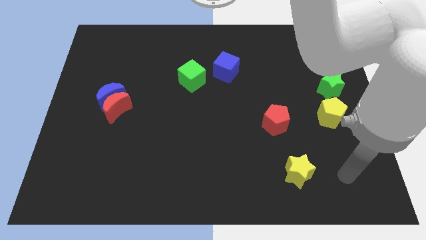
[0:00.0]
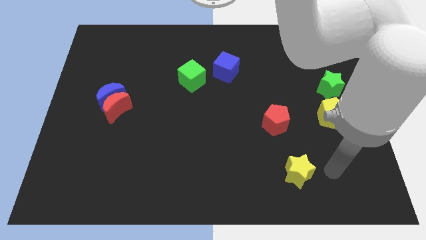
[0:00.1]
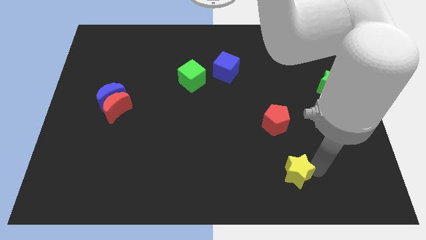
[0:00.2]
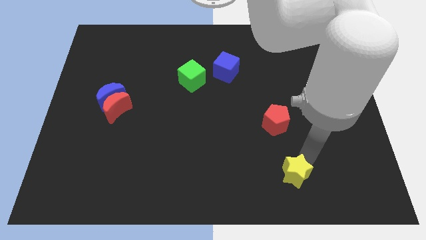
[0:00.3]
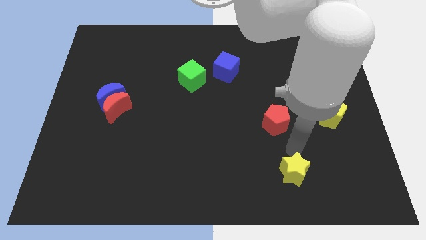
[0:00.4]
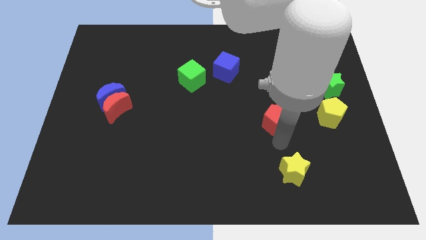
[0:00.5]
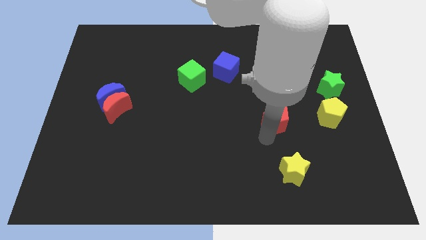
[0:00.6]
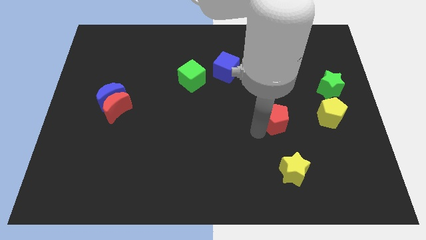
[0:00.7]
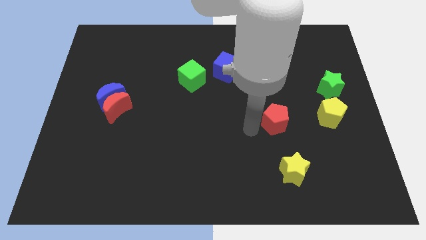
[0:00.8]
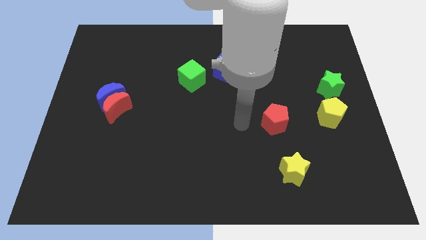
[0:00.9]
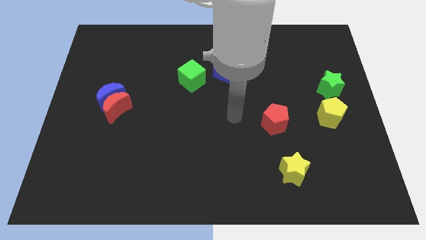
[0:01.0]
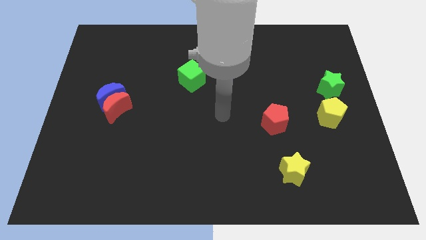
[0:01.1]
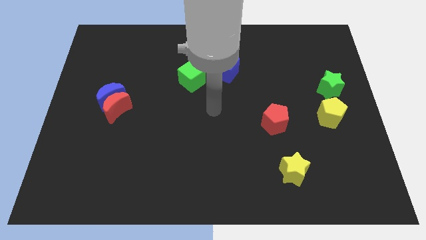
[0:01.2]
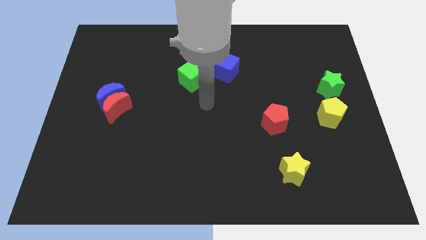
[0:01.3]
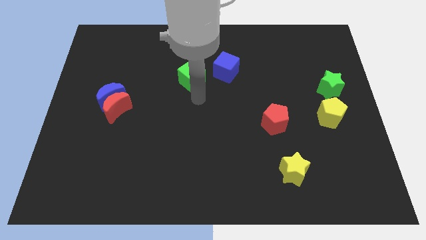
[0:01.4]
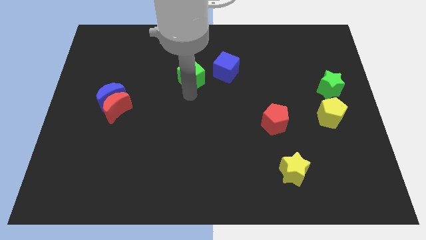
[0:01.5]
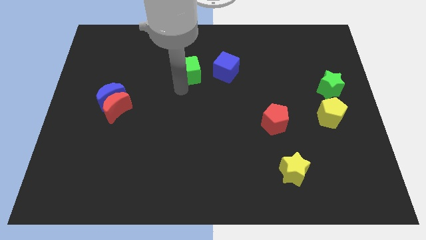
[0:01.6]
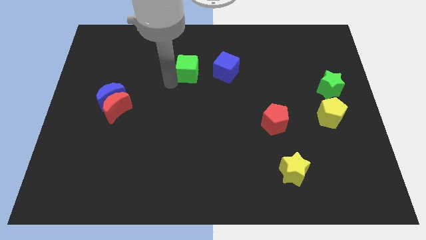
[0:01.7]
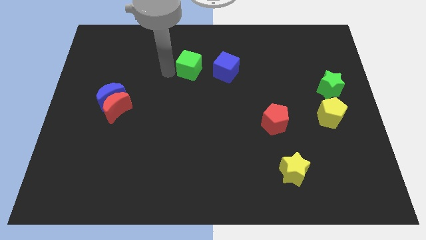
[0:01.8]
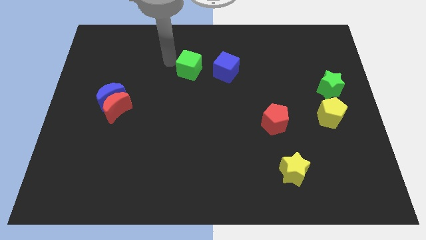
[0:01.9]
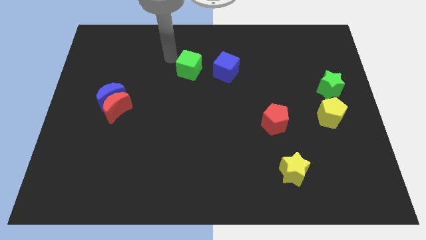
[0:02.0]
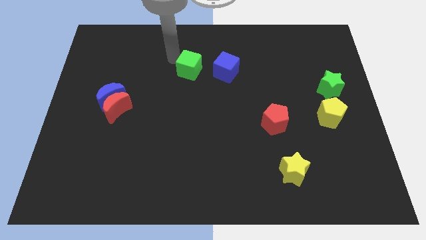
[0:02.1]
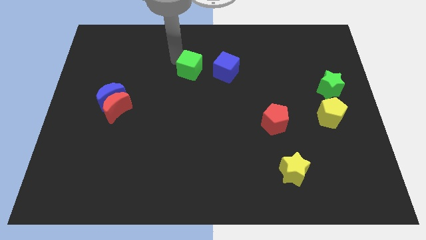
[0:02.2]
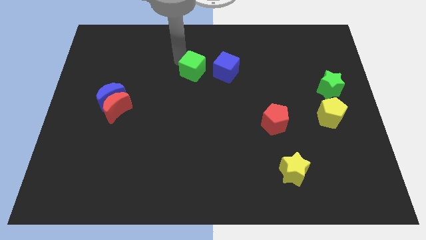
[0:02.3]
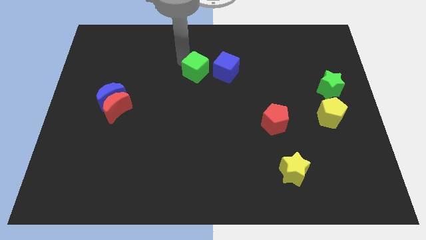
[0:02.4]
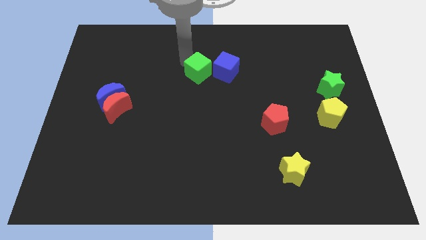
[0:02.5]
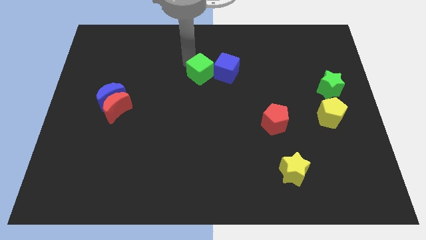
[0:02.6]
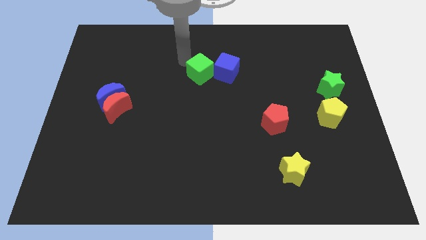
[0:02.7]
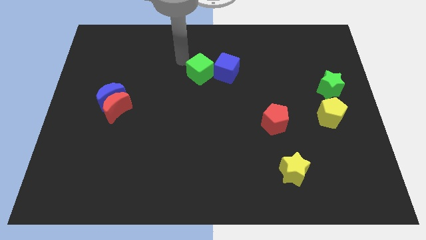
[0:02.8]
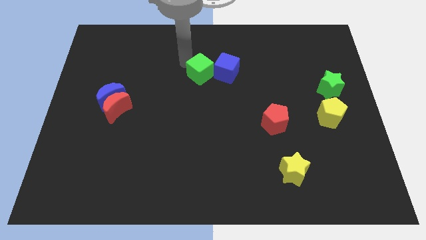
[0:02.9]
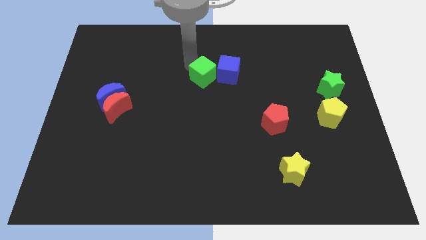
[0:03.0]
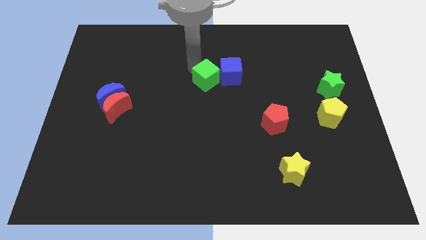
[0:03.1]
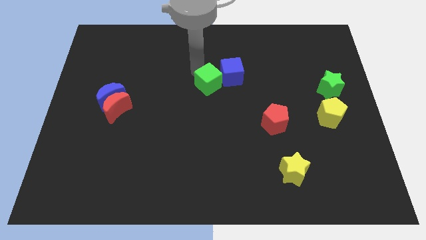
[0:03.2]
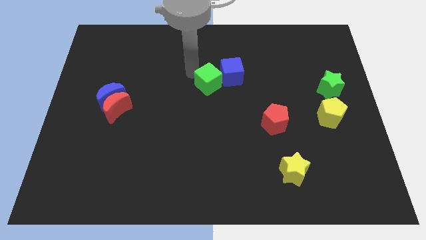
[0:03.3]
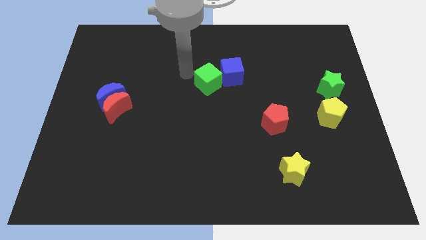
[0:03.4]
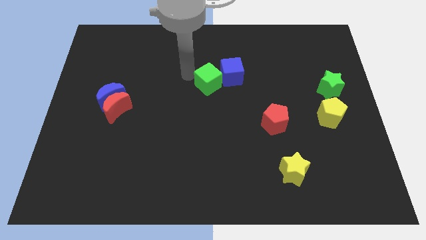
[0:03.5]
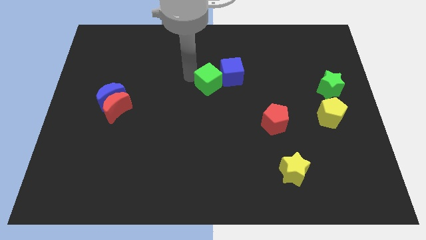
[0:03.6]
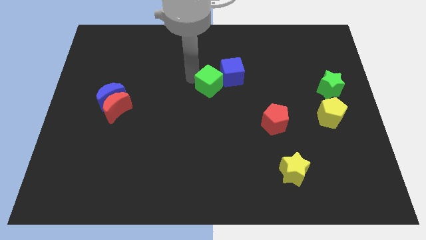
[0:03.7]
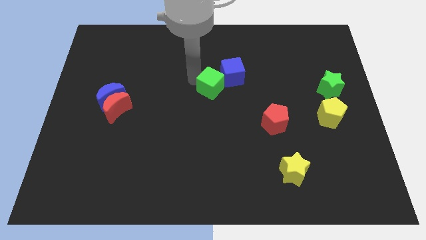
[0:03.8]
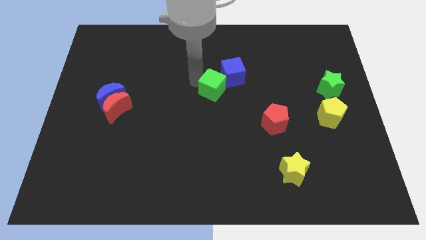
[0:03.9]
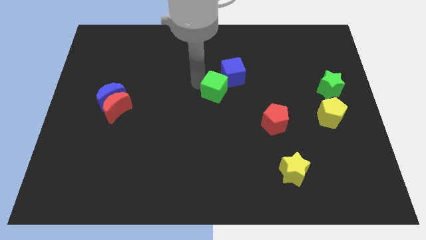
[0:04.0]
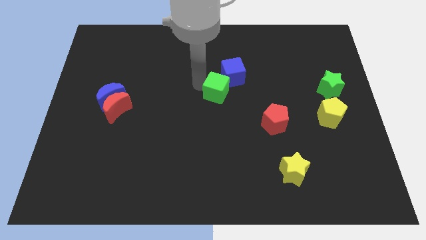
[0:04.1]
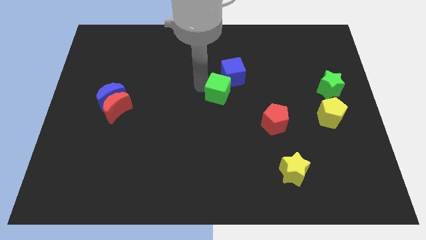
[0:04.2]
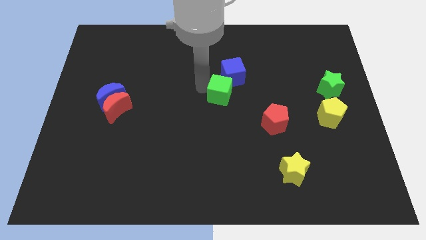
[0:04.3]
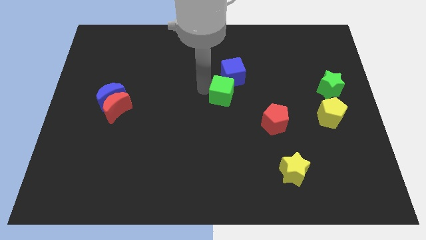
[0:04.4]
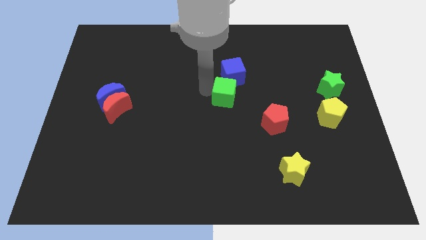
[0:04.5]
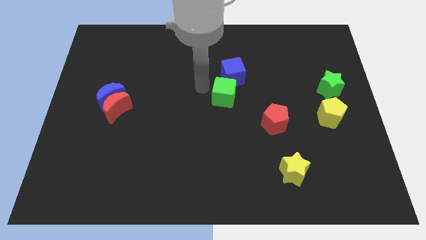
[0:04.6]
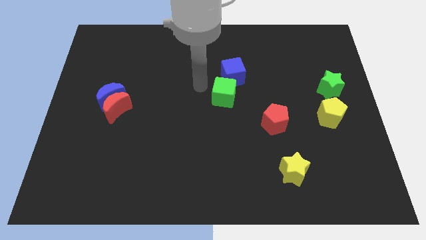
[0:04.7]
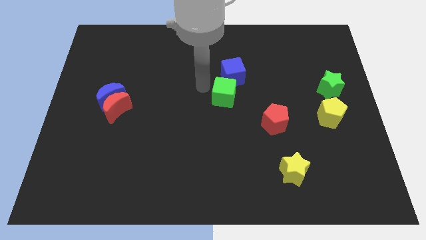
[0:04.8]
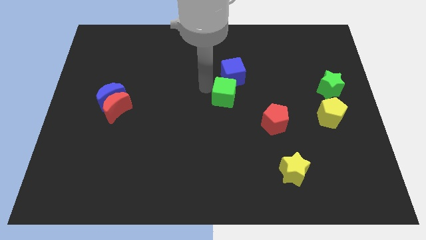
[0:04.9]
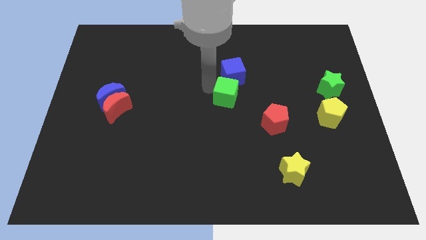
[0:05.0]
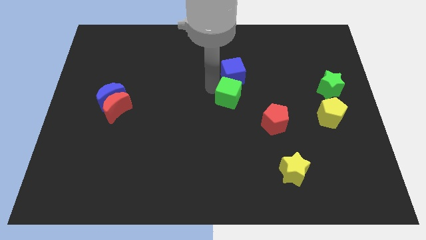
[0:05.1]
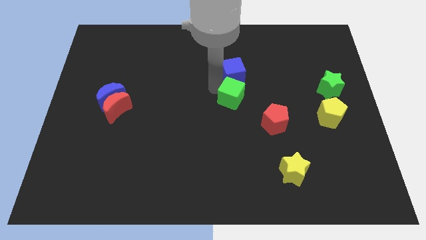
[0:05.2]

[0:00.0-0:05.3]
slide the green cube to the top left side of the red pentagon

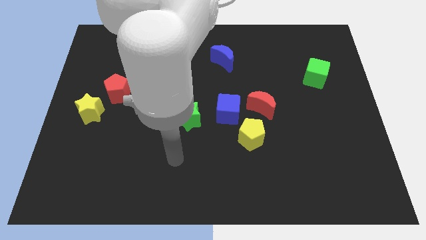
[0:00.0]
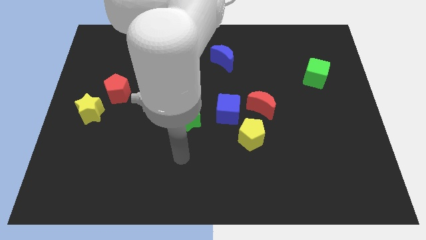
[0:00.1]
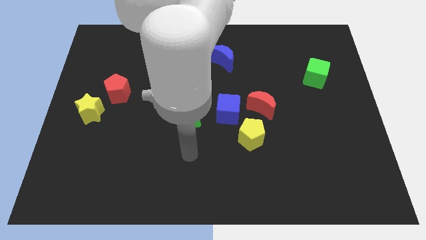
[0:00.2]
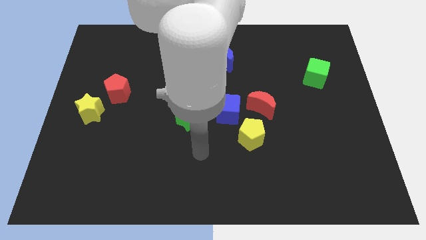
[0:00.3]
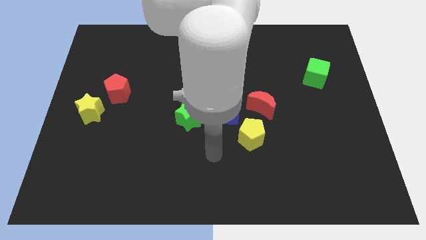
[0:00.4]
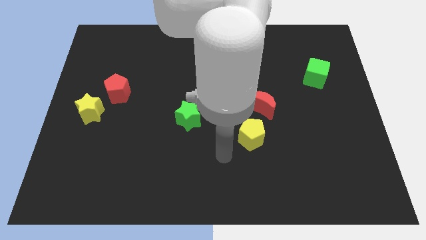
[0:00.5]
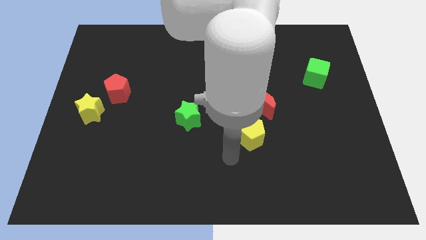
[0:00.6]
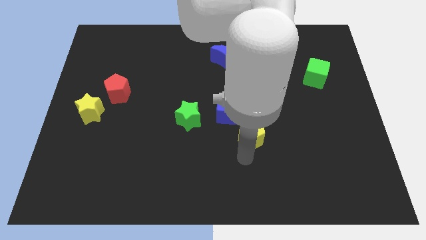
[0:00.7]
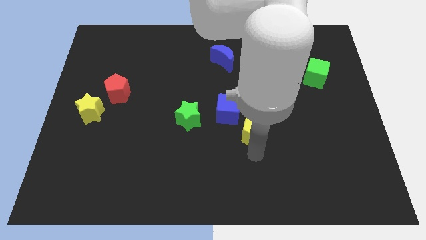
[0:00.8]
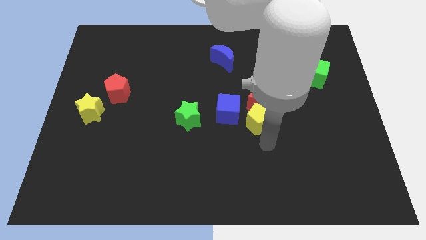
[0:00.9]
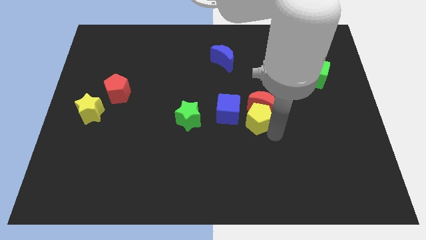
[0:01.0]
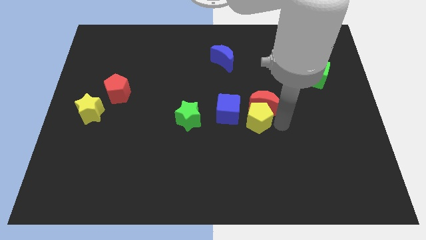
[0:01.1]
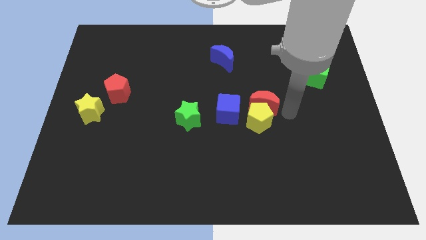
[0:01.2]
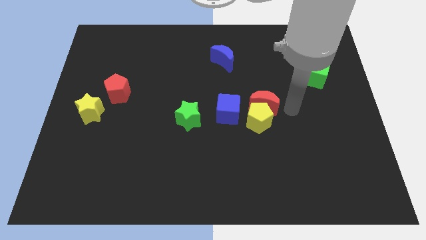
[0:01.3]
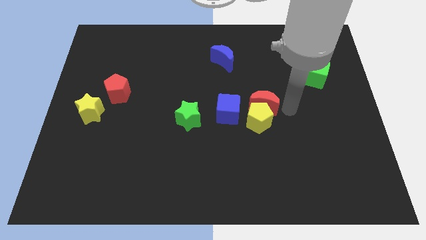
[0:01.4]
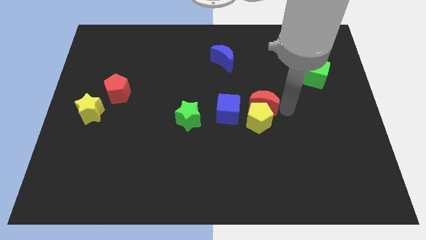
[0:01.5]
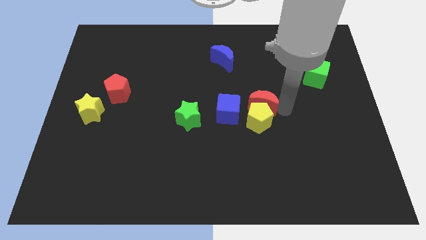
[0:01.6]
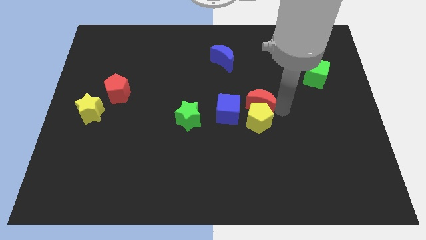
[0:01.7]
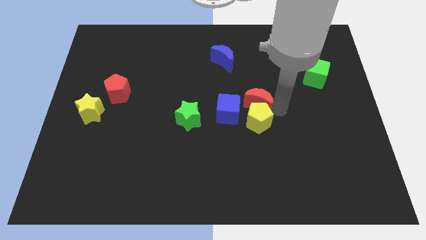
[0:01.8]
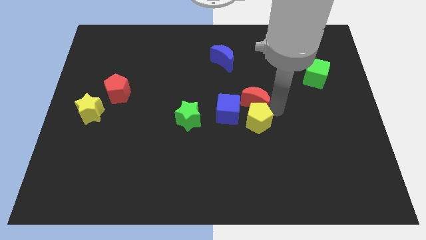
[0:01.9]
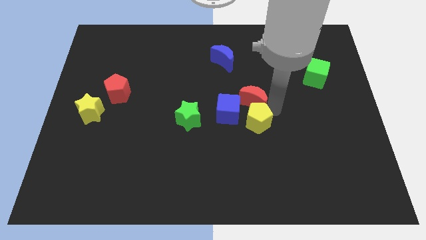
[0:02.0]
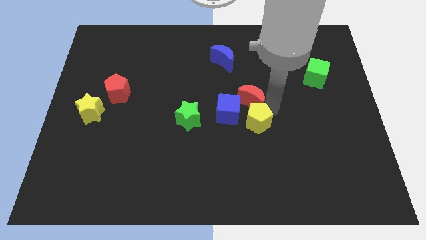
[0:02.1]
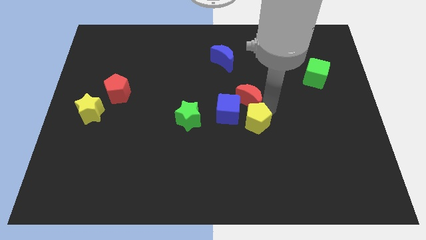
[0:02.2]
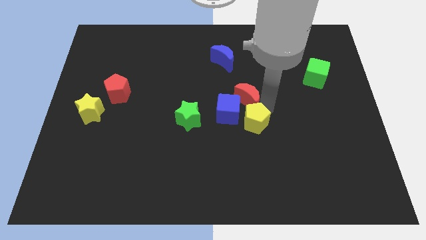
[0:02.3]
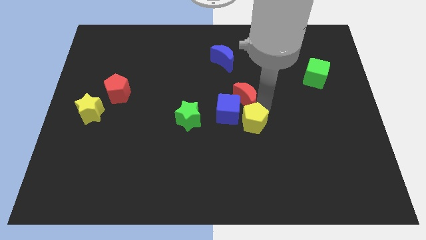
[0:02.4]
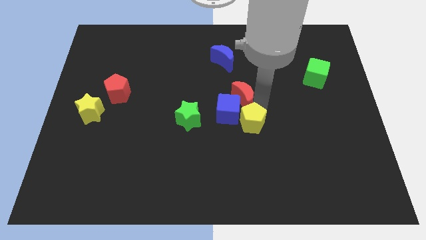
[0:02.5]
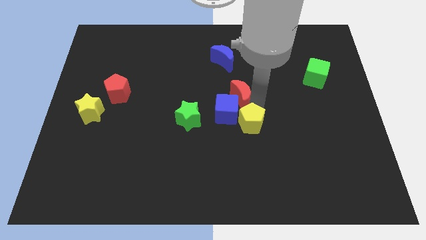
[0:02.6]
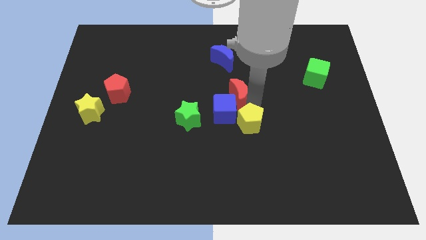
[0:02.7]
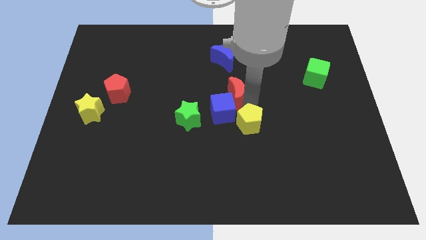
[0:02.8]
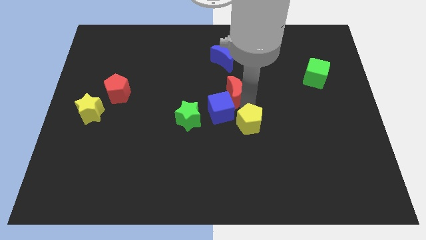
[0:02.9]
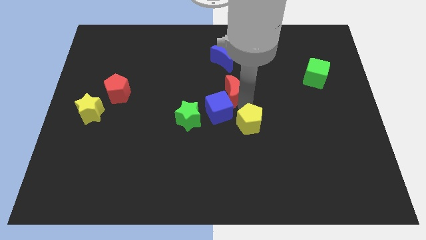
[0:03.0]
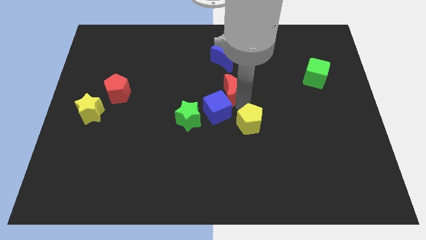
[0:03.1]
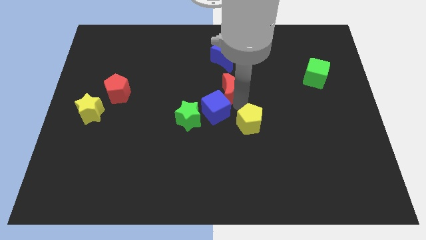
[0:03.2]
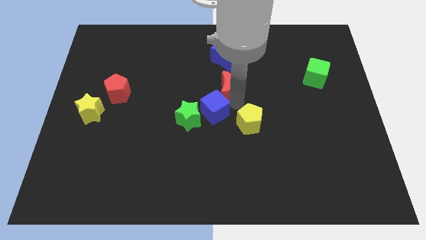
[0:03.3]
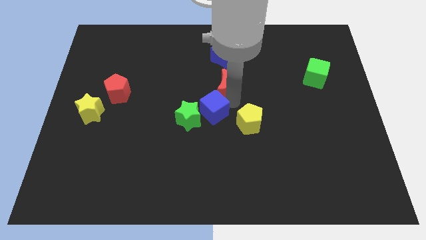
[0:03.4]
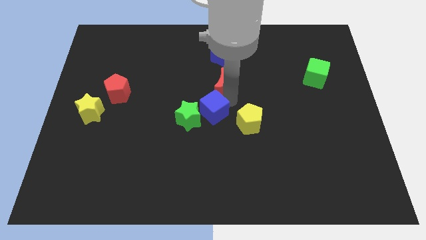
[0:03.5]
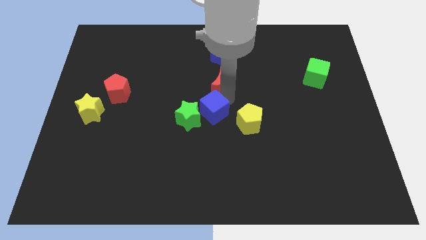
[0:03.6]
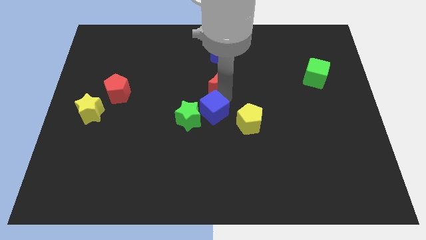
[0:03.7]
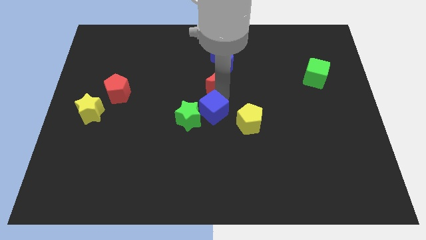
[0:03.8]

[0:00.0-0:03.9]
put the red moon to the bottom left of the blue moon
